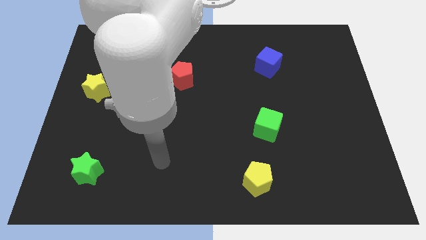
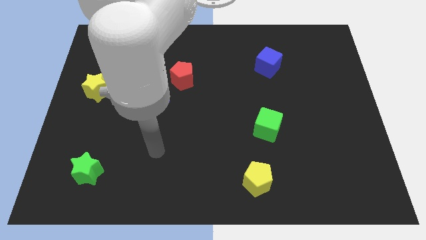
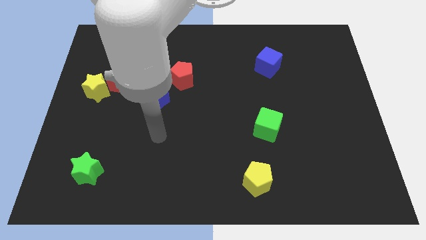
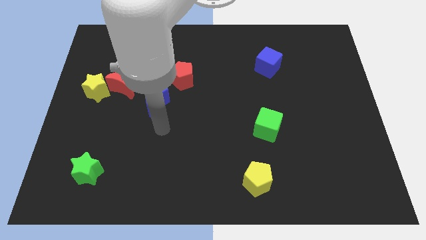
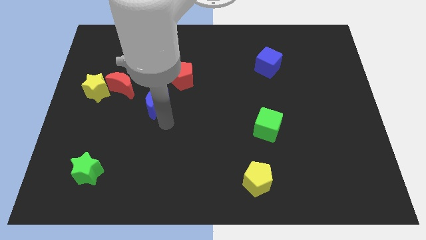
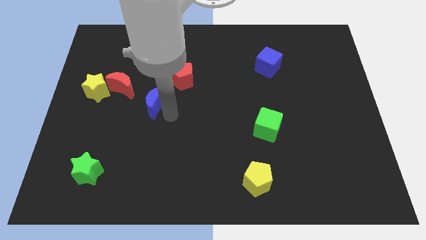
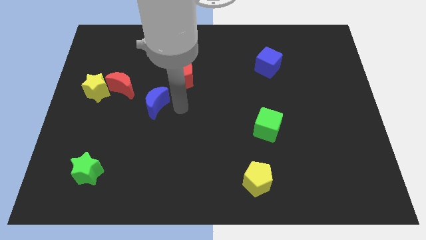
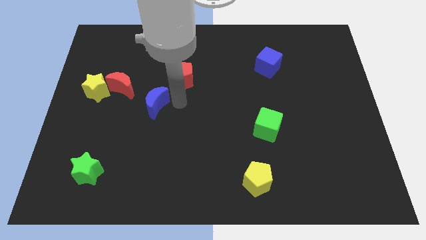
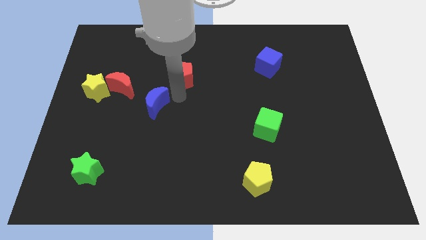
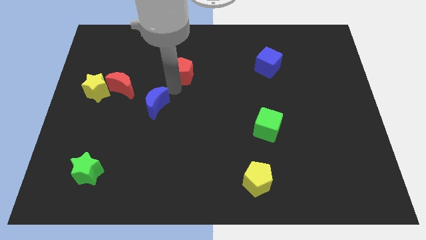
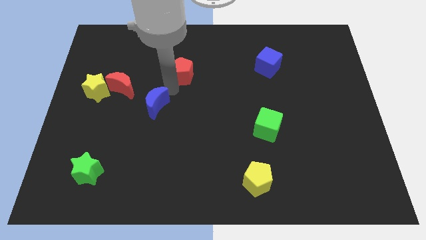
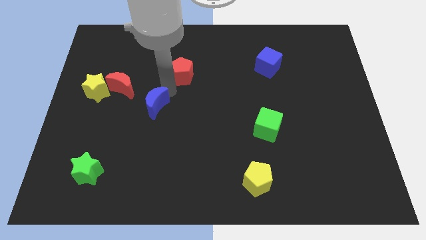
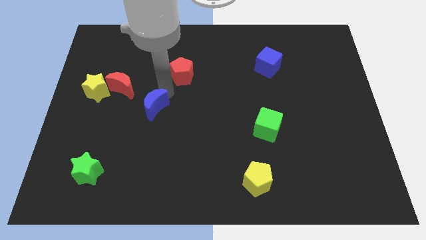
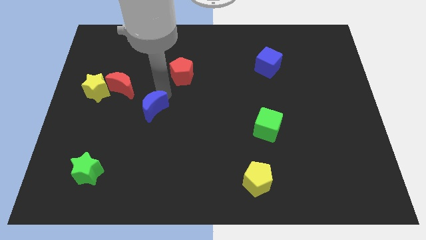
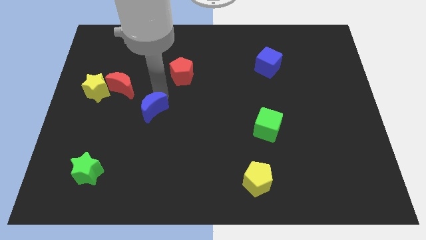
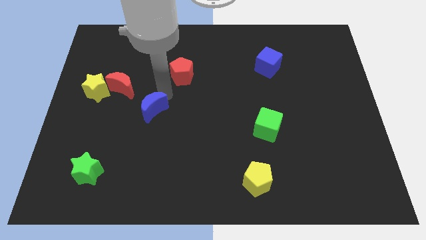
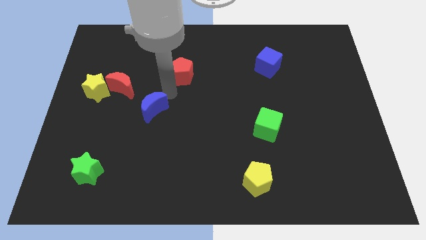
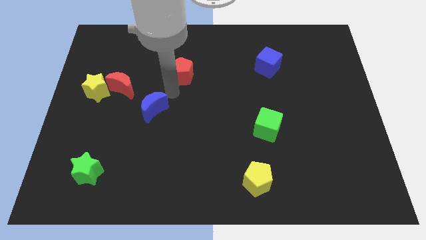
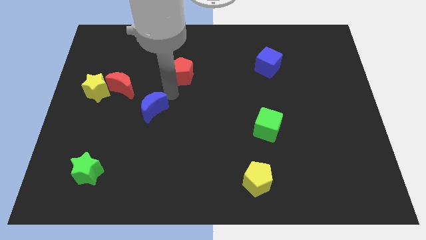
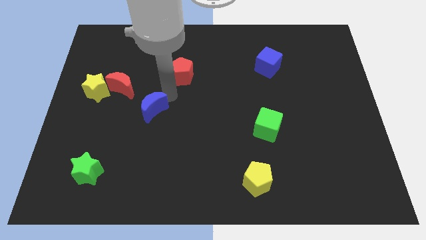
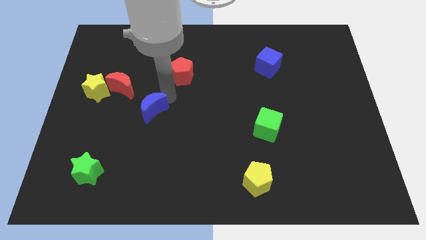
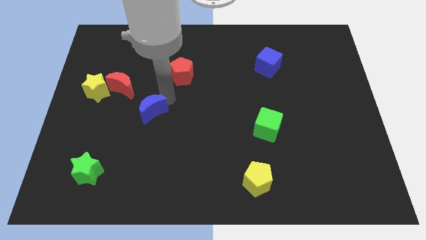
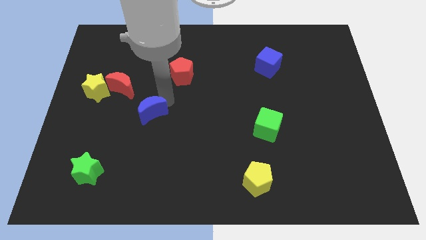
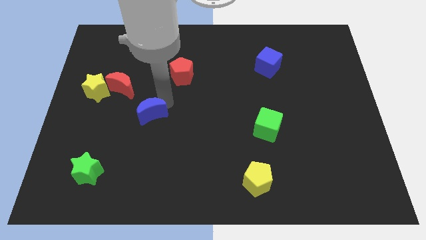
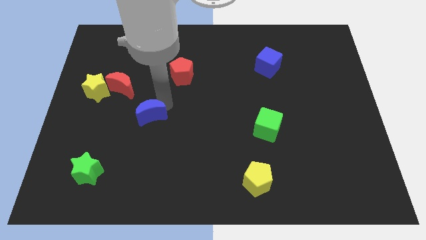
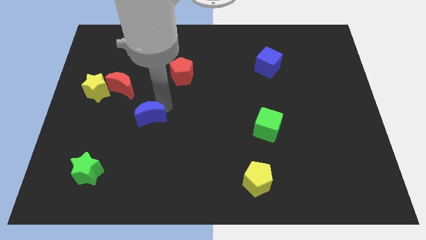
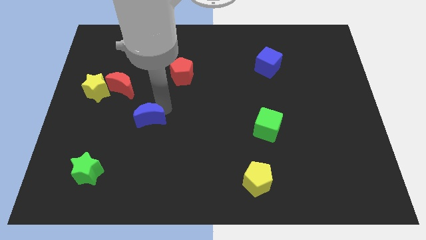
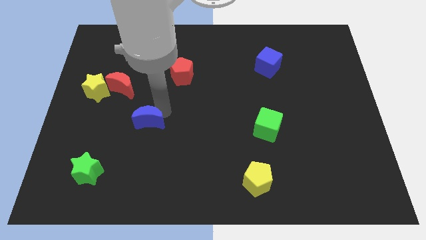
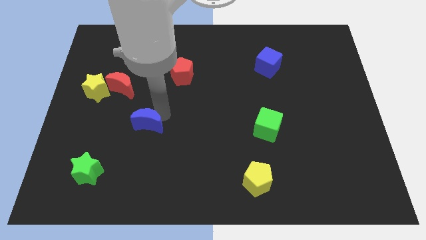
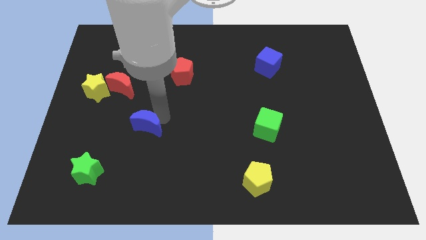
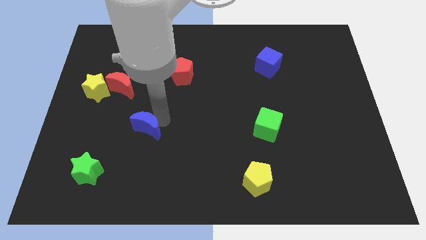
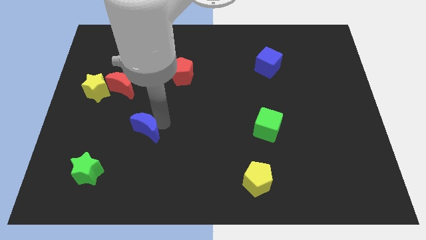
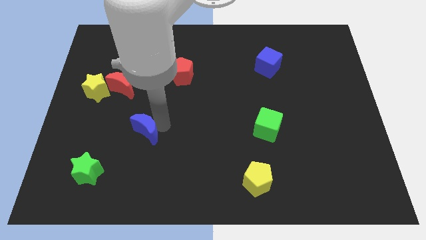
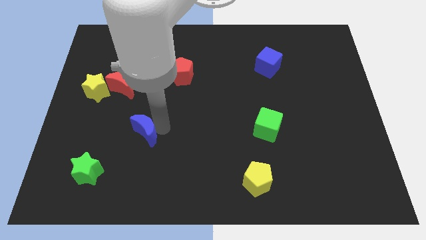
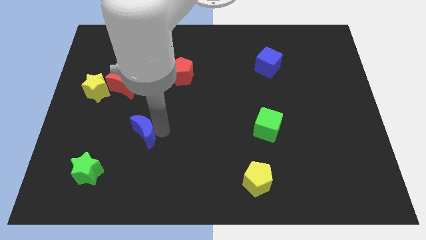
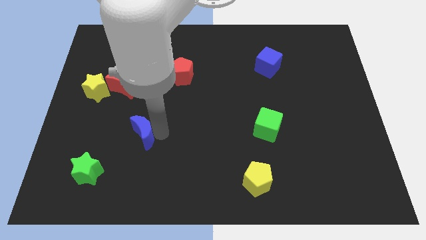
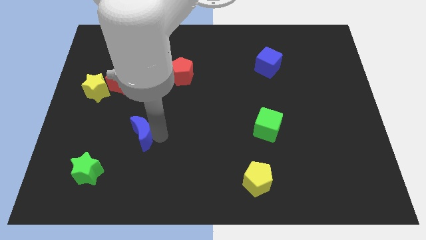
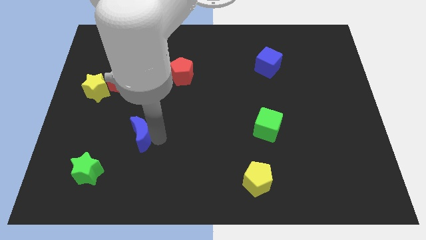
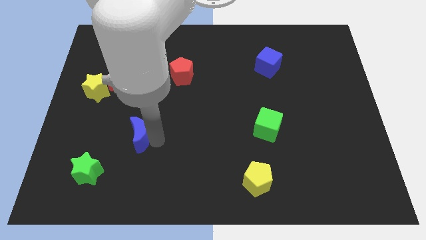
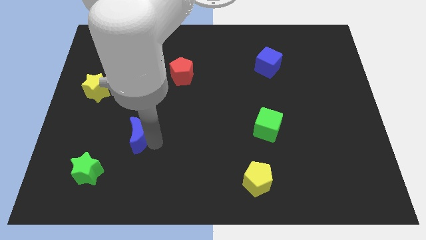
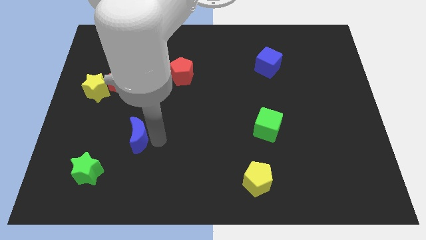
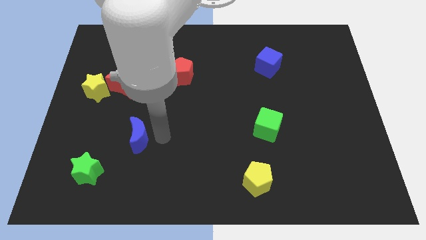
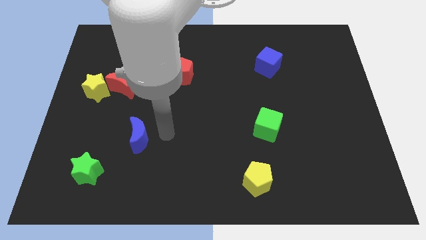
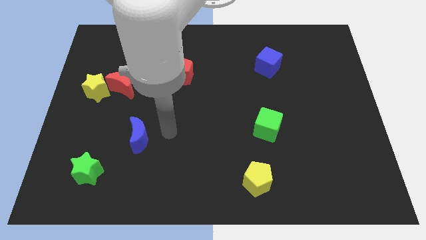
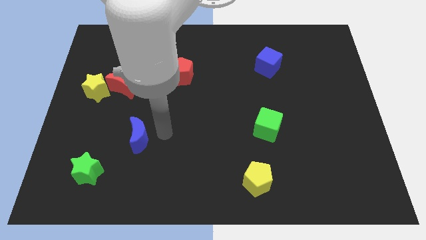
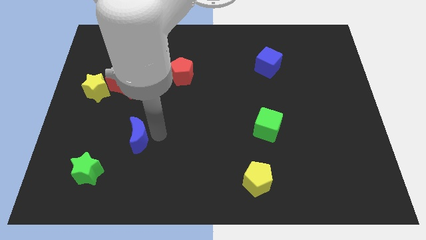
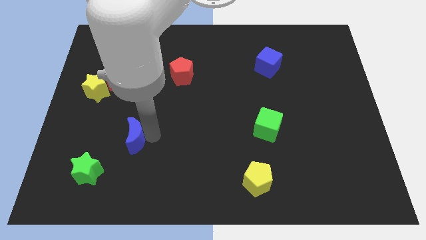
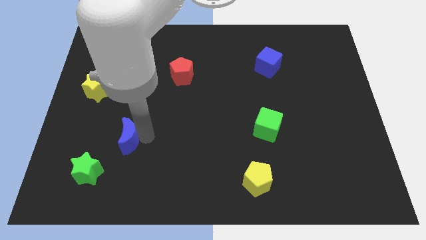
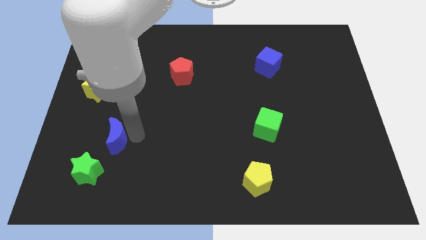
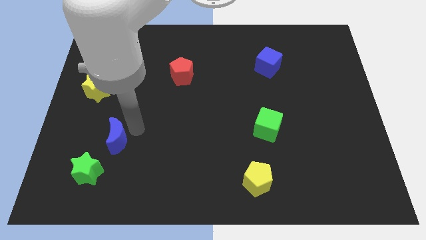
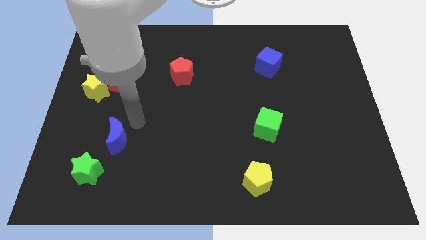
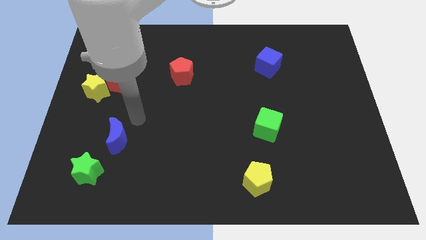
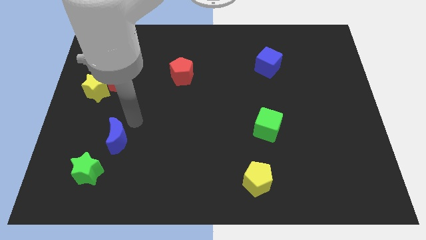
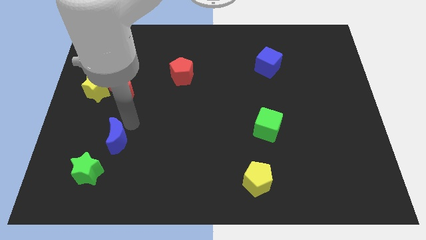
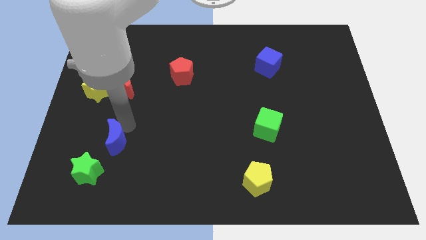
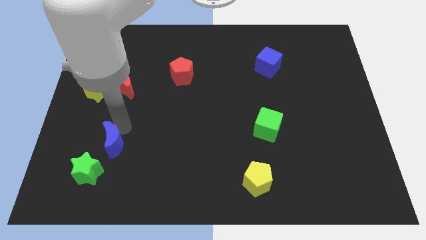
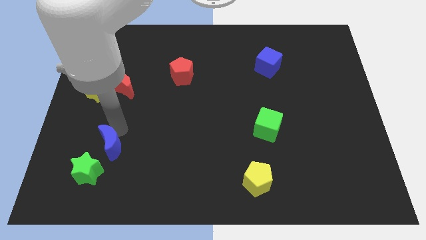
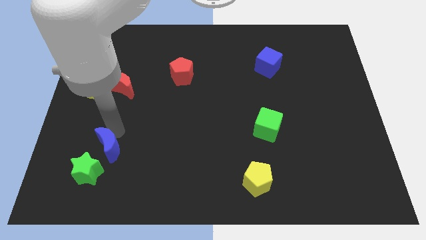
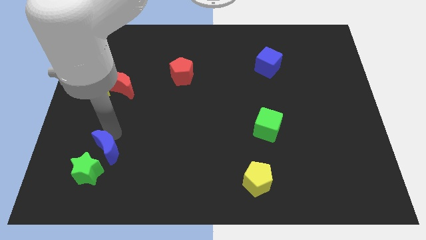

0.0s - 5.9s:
push the blue moon to the green star

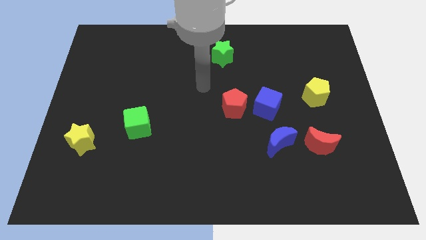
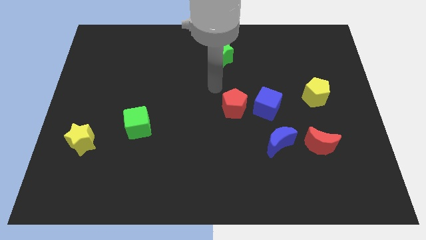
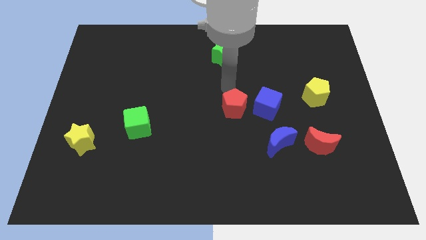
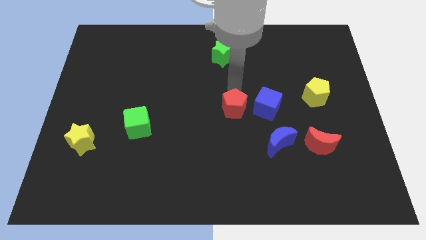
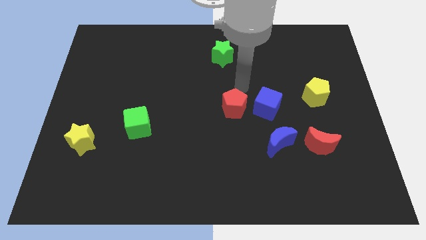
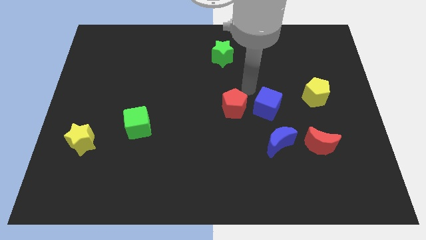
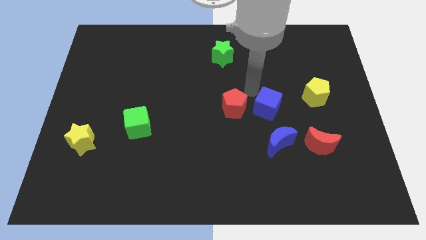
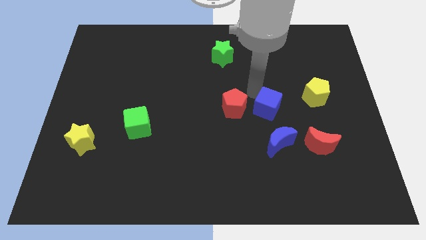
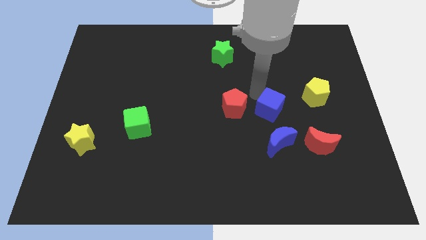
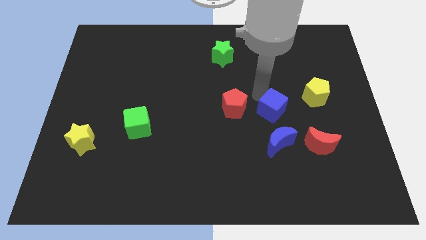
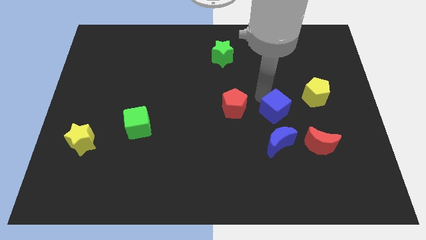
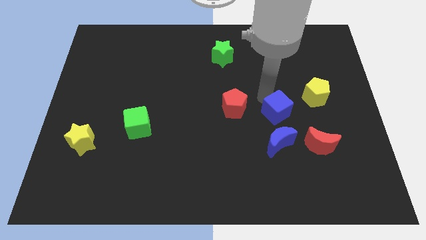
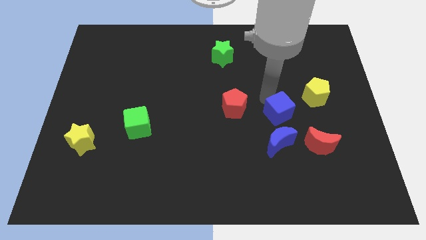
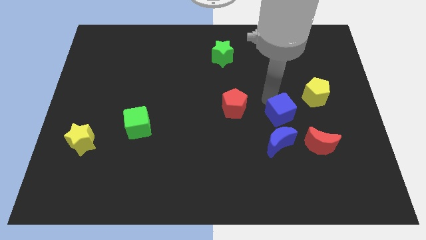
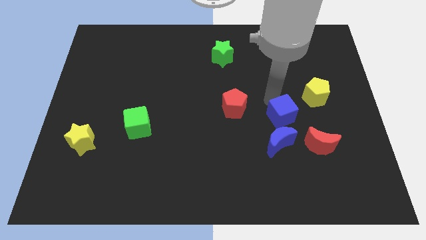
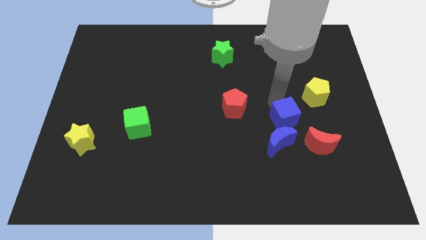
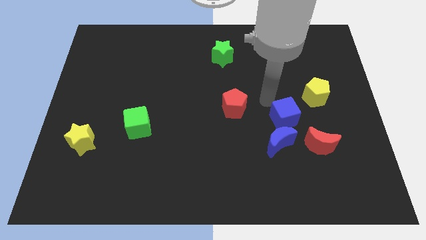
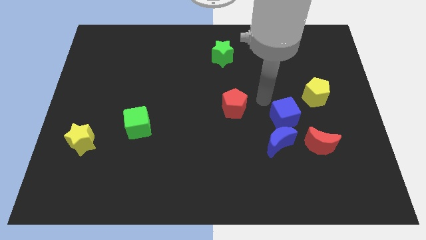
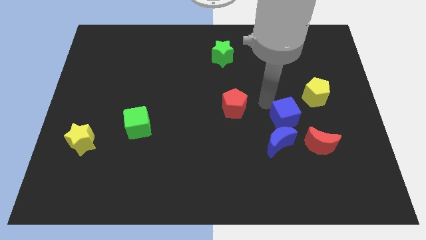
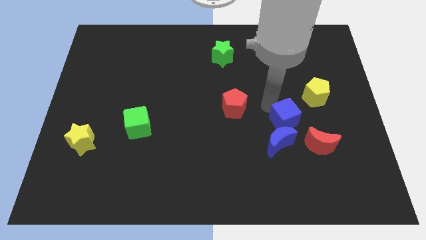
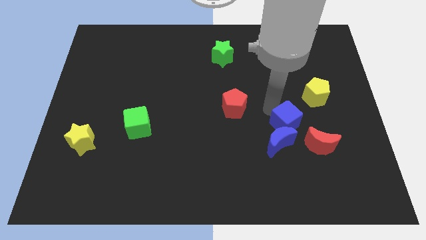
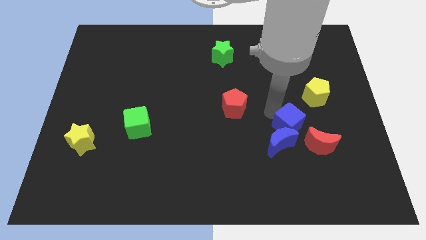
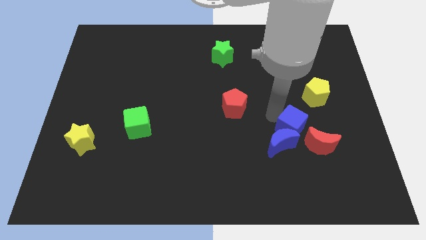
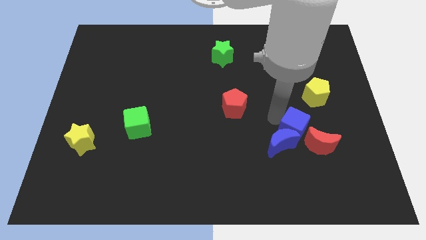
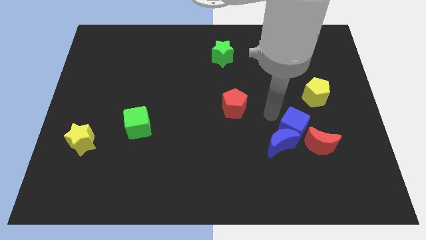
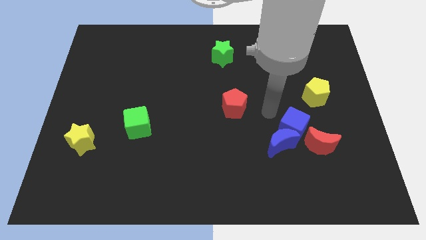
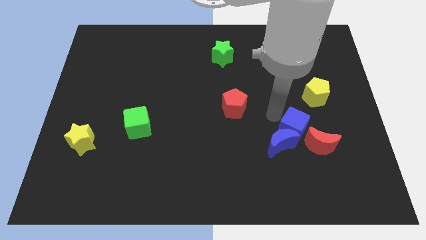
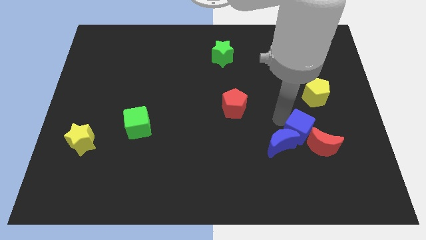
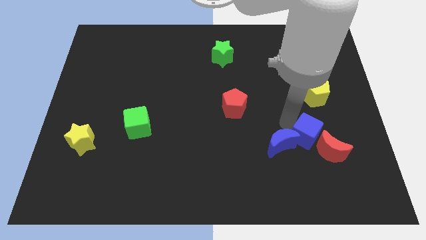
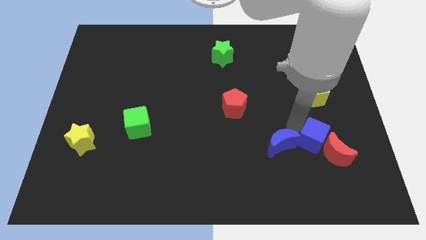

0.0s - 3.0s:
put the blue cube close to the red moon
